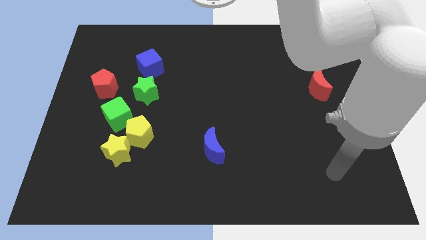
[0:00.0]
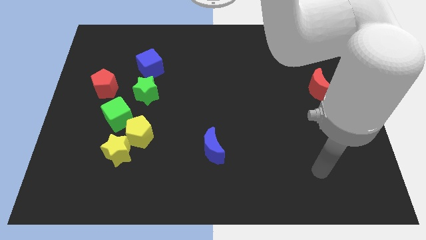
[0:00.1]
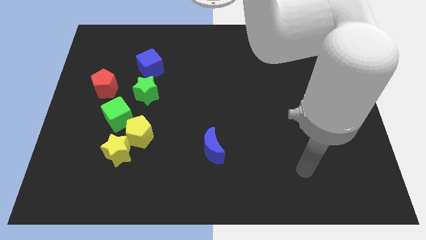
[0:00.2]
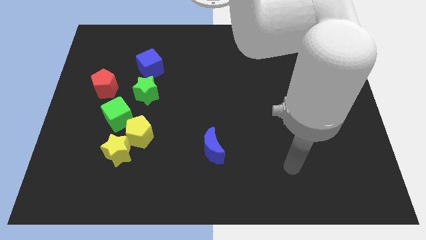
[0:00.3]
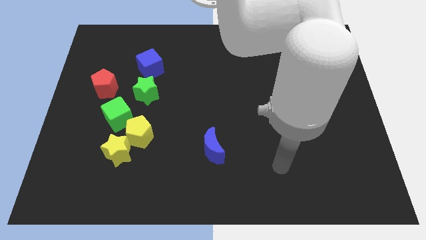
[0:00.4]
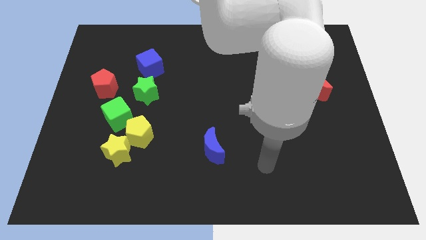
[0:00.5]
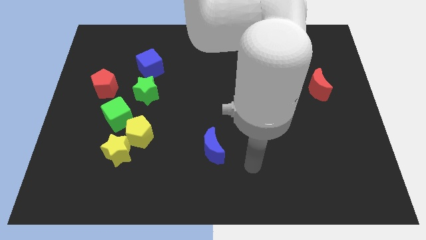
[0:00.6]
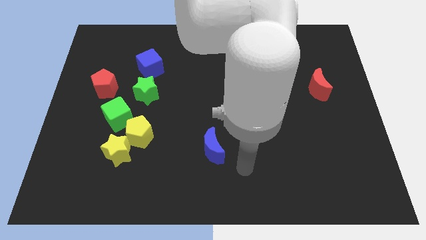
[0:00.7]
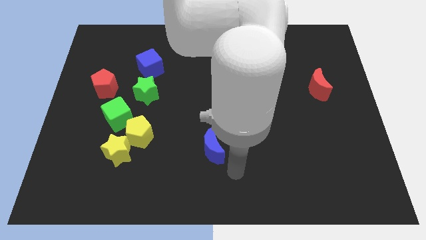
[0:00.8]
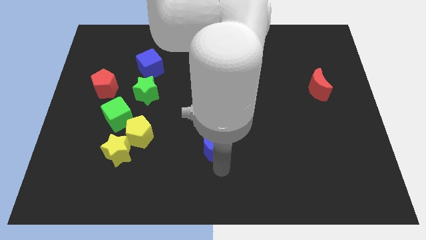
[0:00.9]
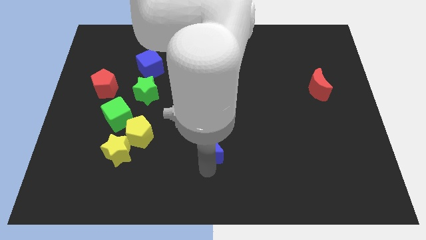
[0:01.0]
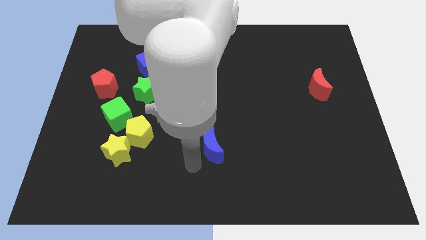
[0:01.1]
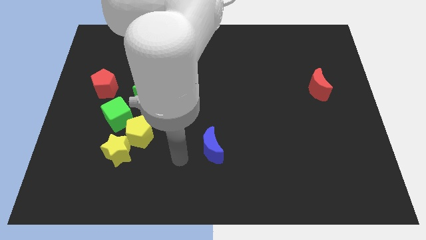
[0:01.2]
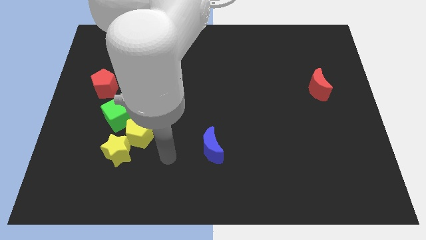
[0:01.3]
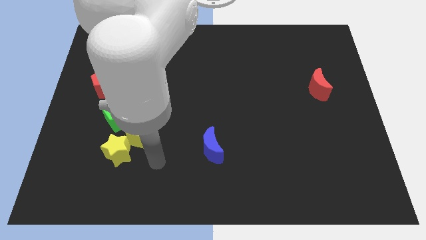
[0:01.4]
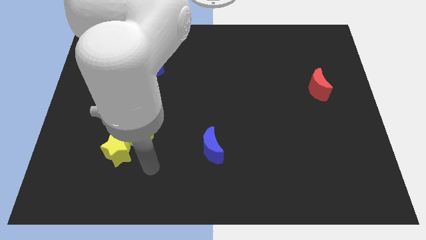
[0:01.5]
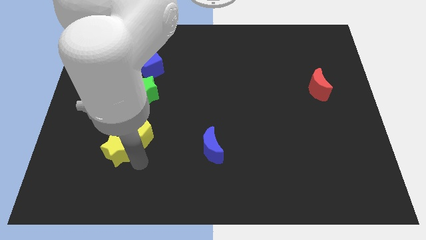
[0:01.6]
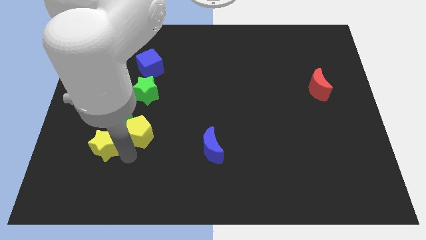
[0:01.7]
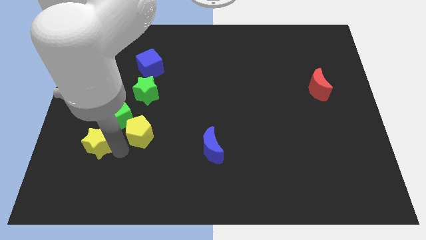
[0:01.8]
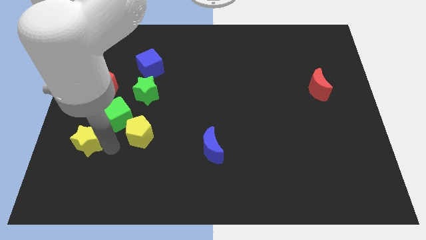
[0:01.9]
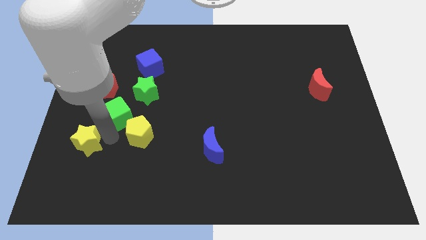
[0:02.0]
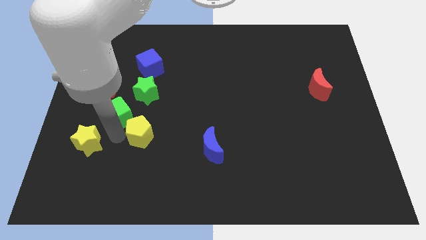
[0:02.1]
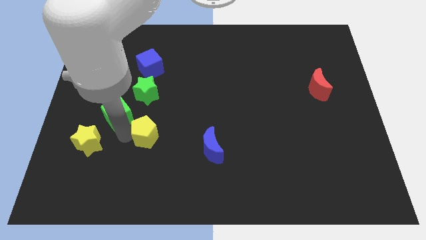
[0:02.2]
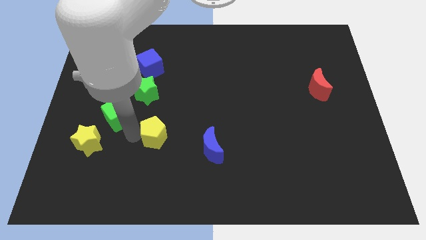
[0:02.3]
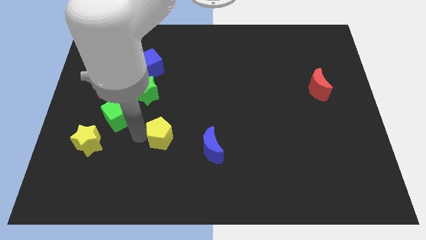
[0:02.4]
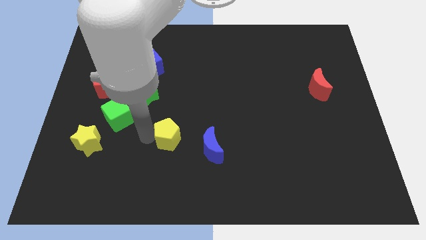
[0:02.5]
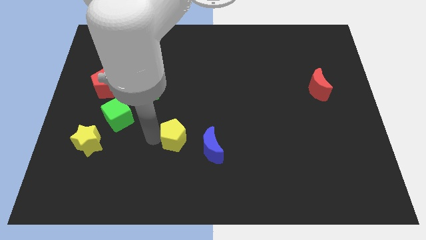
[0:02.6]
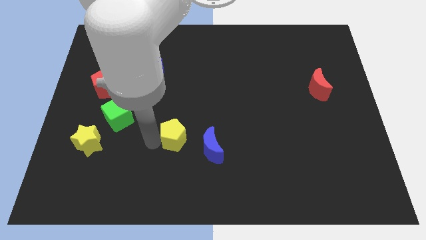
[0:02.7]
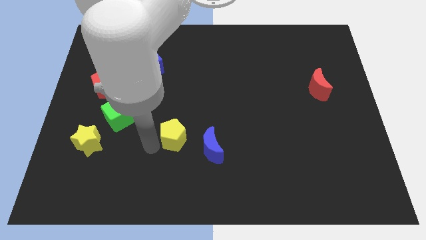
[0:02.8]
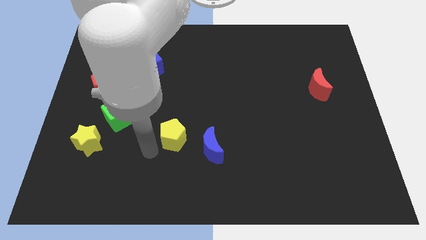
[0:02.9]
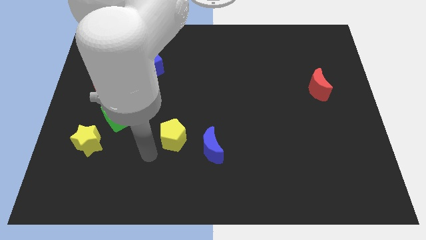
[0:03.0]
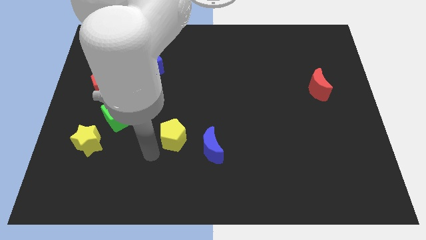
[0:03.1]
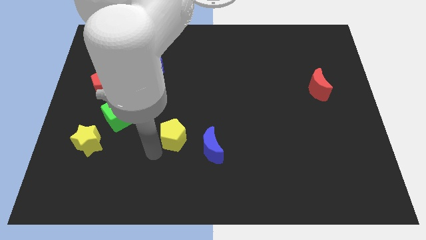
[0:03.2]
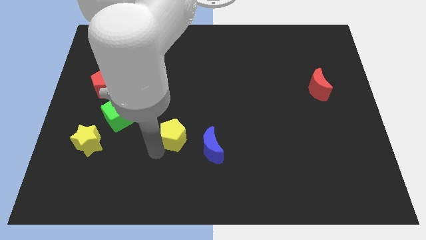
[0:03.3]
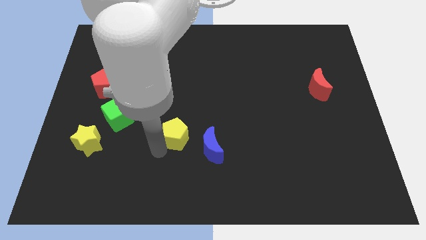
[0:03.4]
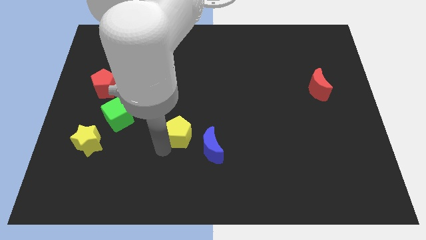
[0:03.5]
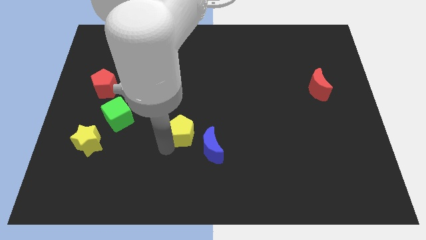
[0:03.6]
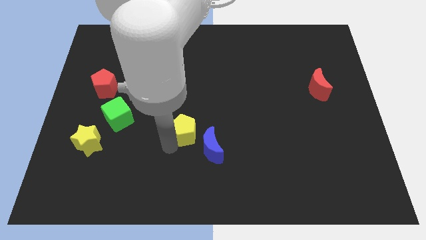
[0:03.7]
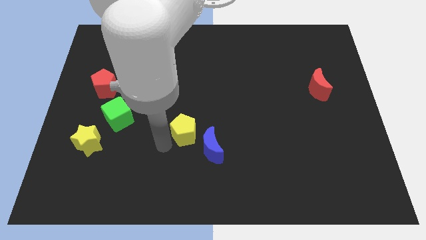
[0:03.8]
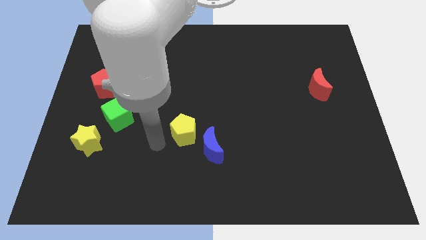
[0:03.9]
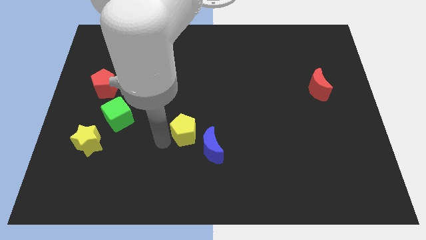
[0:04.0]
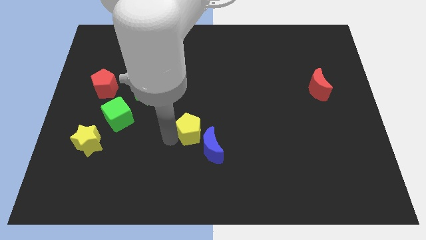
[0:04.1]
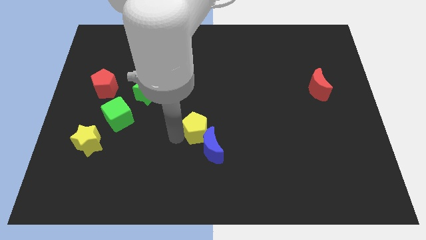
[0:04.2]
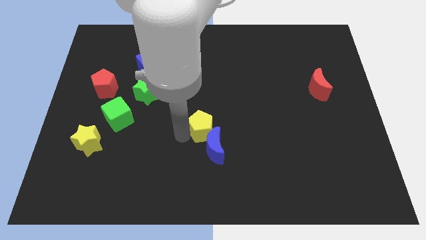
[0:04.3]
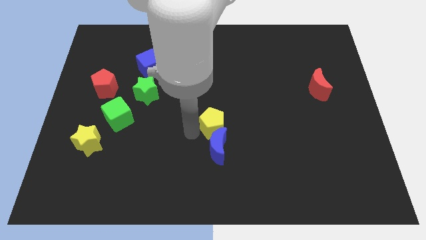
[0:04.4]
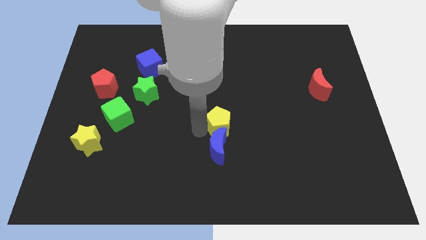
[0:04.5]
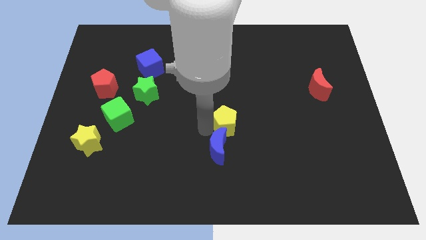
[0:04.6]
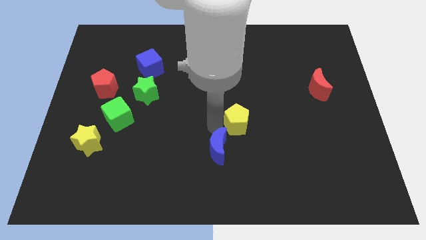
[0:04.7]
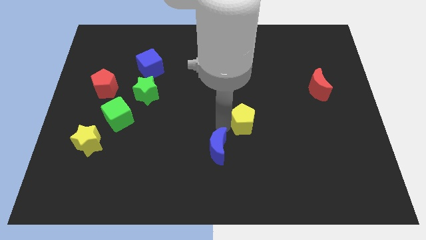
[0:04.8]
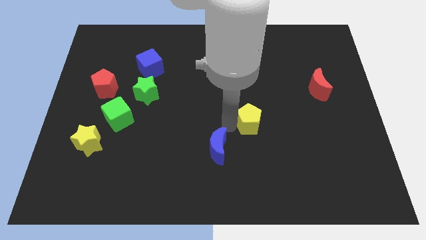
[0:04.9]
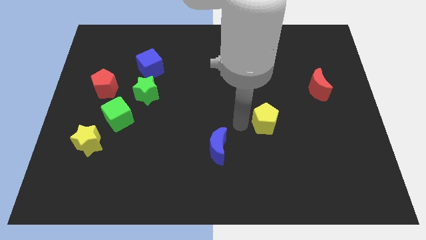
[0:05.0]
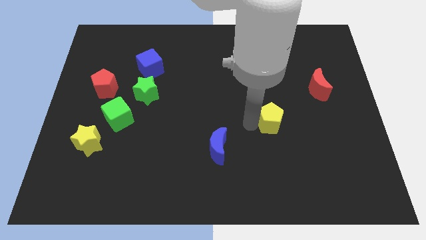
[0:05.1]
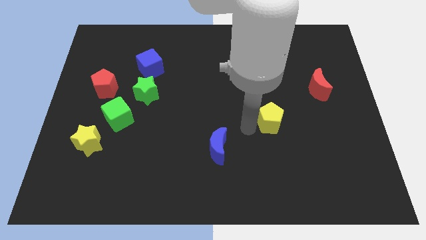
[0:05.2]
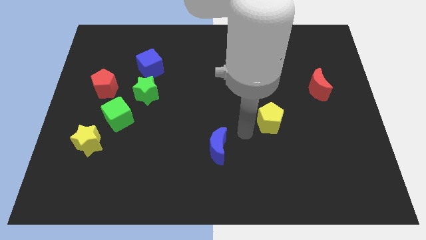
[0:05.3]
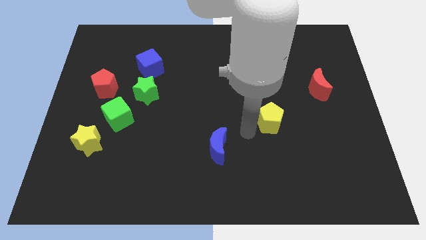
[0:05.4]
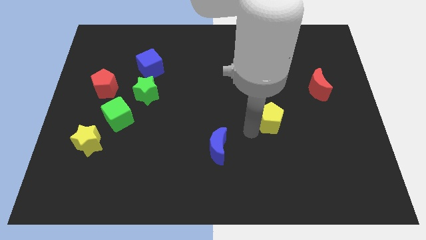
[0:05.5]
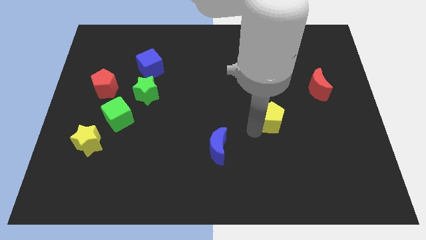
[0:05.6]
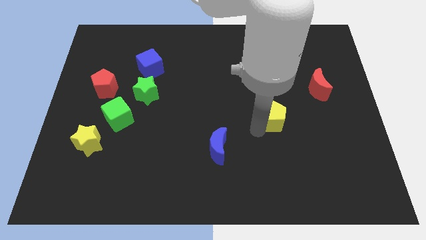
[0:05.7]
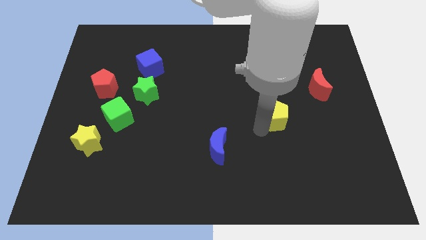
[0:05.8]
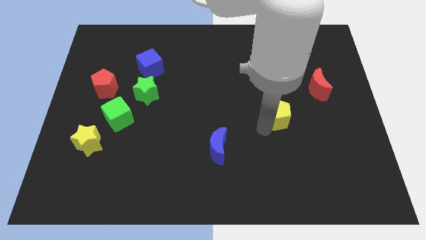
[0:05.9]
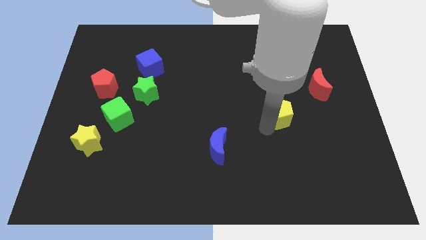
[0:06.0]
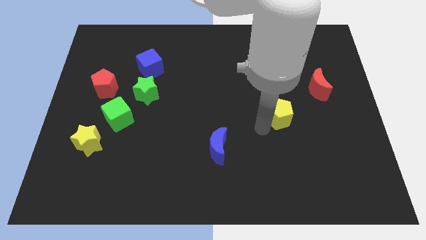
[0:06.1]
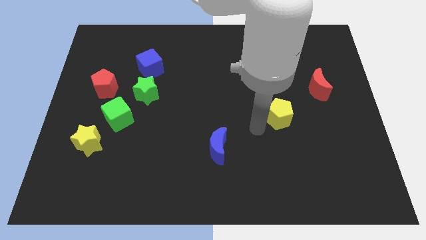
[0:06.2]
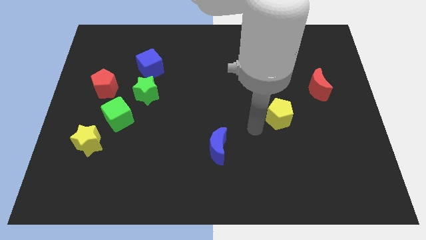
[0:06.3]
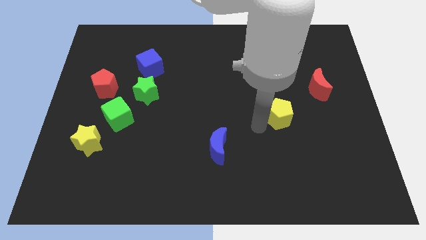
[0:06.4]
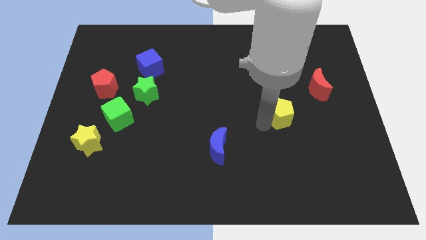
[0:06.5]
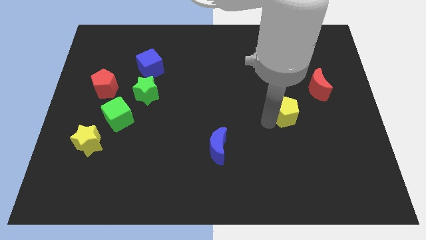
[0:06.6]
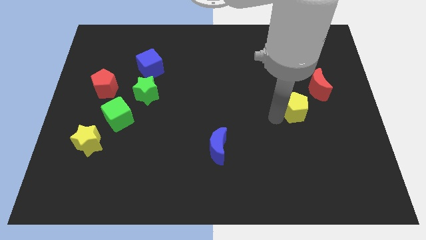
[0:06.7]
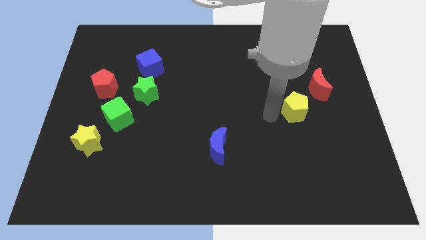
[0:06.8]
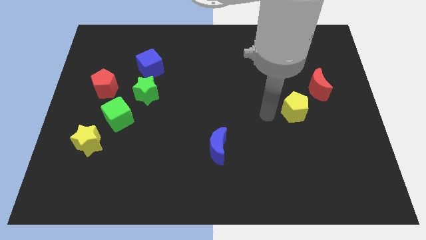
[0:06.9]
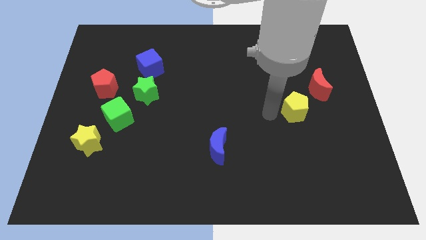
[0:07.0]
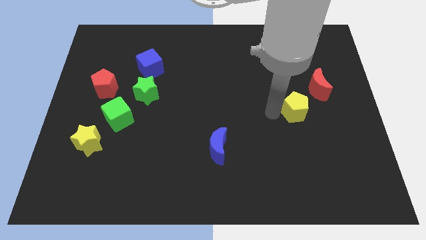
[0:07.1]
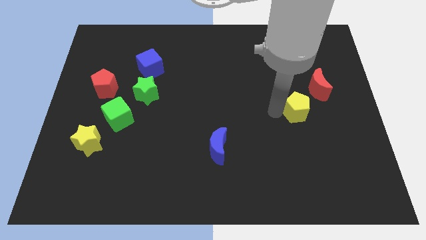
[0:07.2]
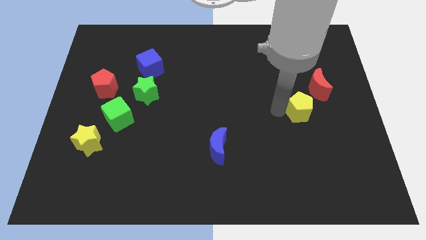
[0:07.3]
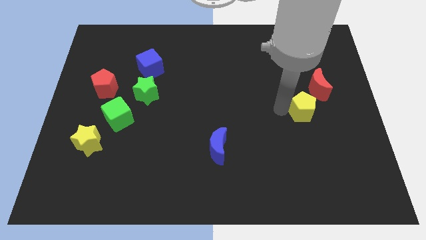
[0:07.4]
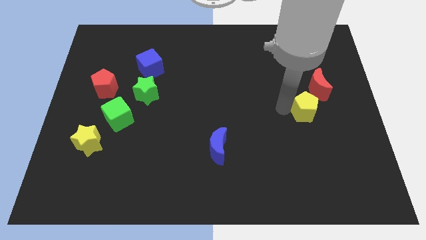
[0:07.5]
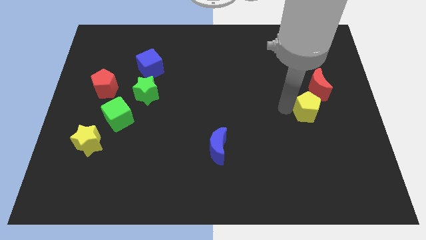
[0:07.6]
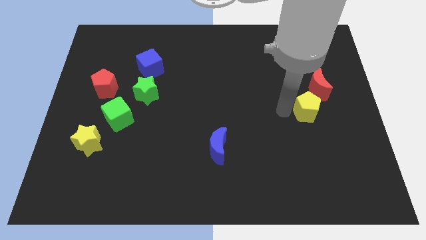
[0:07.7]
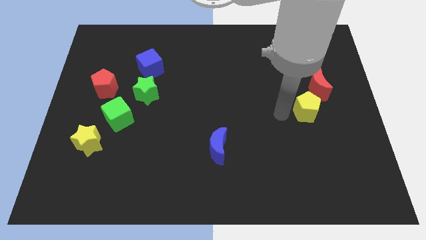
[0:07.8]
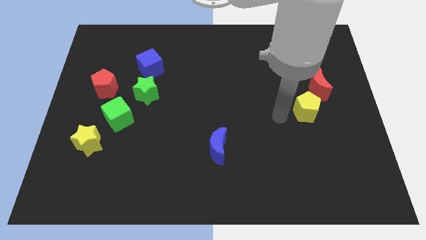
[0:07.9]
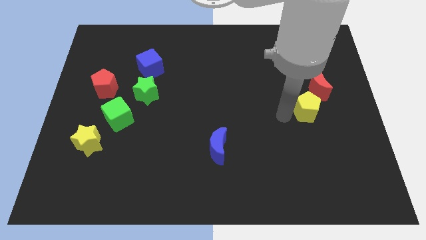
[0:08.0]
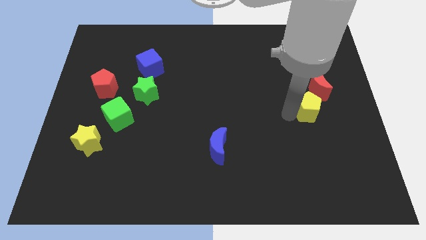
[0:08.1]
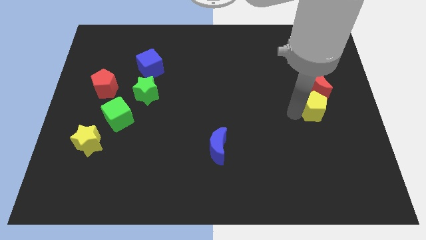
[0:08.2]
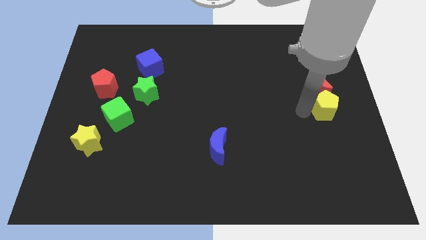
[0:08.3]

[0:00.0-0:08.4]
push the yellow pentagon to the center right
